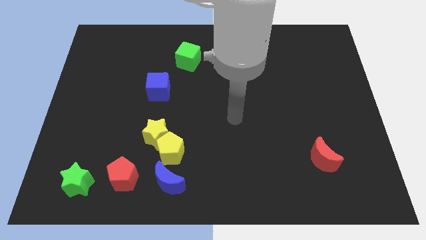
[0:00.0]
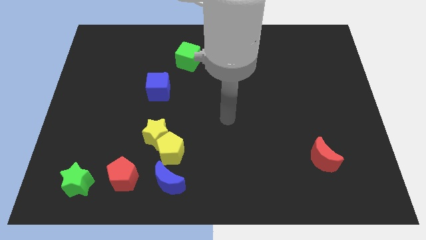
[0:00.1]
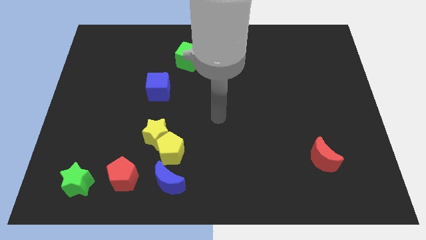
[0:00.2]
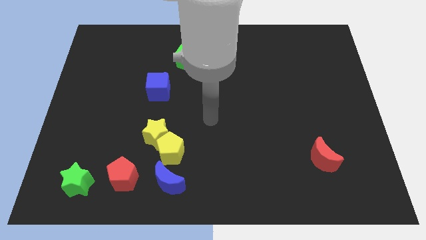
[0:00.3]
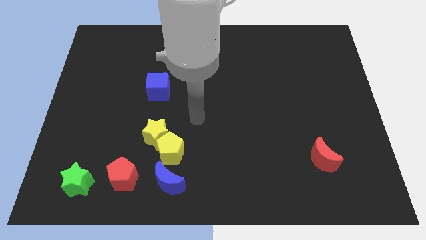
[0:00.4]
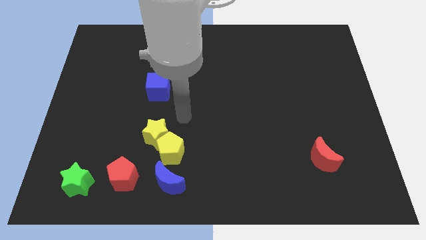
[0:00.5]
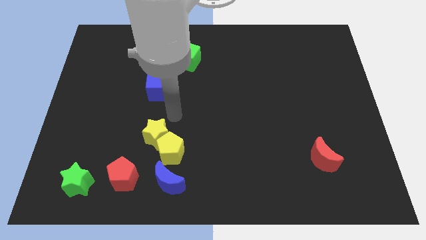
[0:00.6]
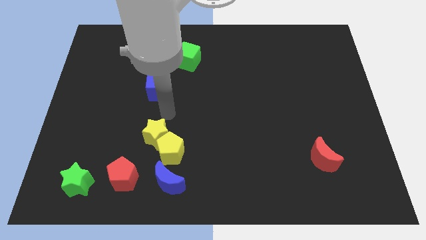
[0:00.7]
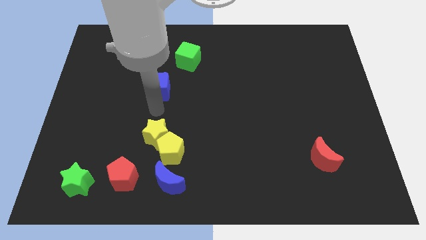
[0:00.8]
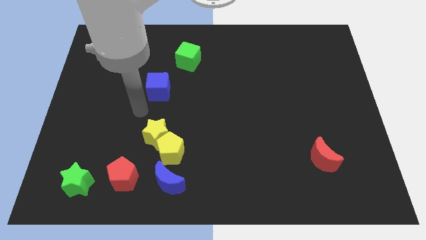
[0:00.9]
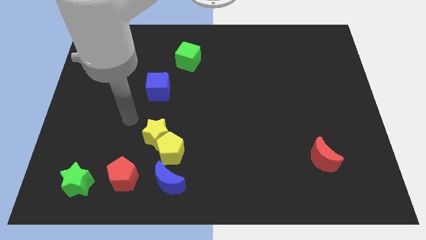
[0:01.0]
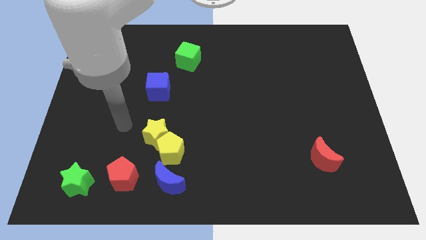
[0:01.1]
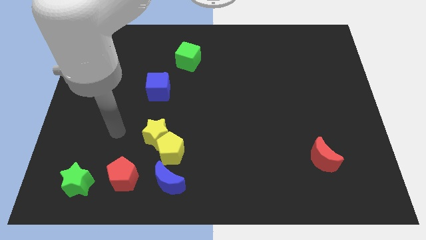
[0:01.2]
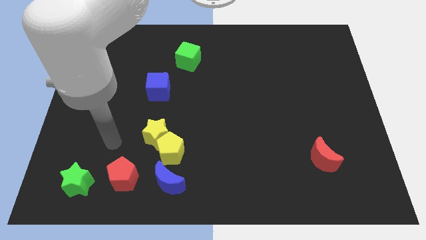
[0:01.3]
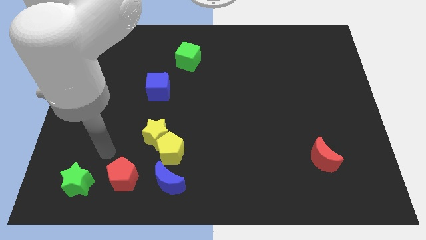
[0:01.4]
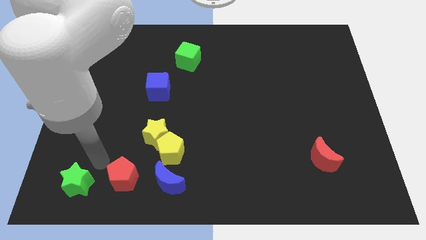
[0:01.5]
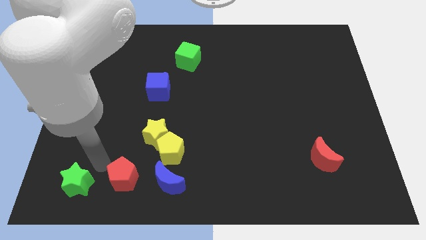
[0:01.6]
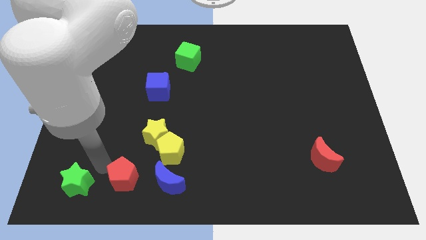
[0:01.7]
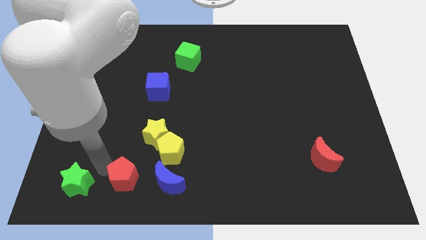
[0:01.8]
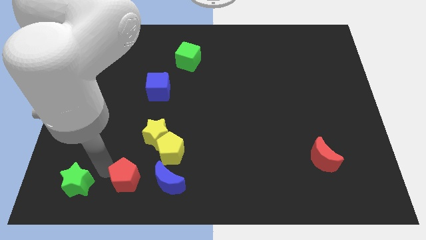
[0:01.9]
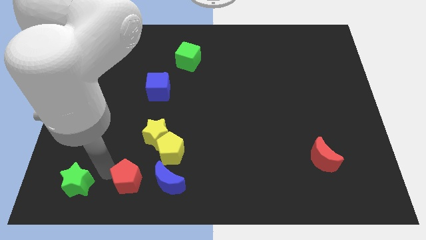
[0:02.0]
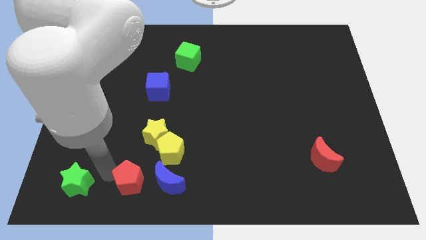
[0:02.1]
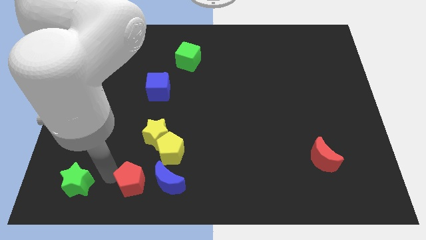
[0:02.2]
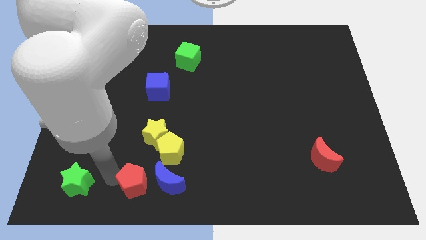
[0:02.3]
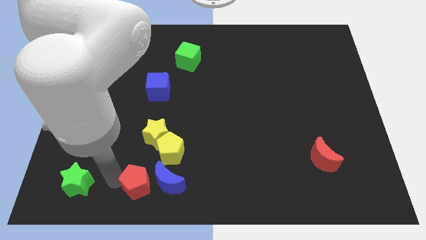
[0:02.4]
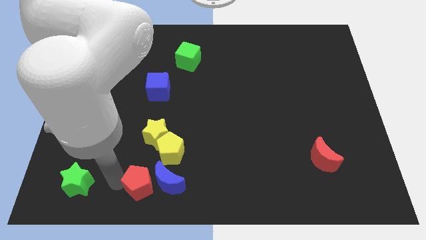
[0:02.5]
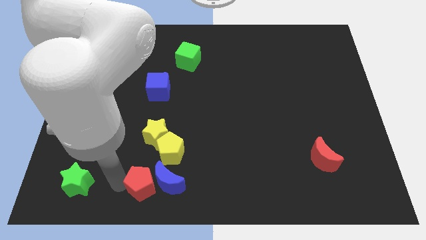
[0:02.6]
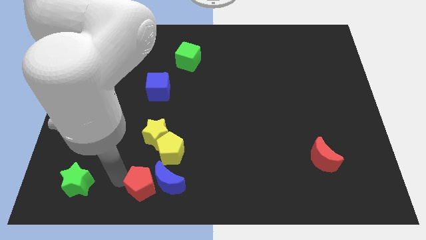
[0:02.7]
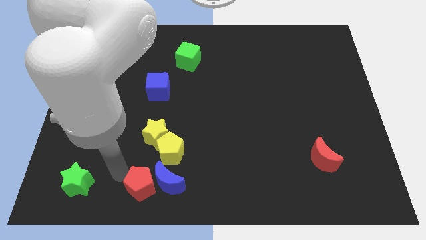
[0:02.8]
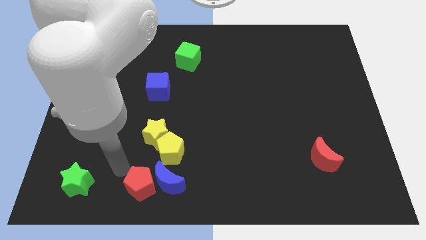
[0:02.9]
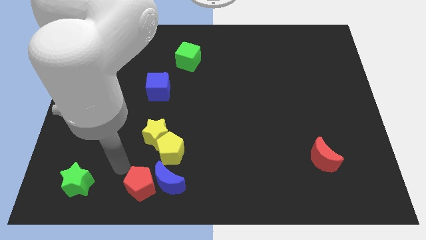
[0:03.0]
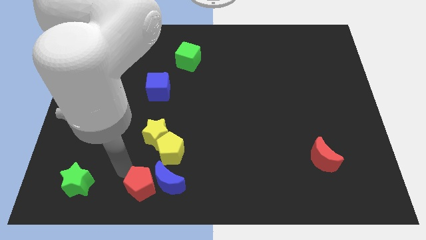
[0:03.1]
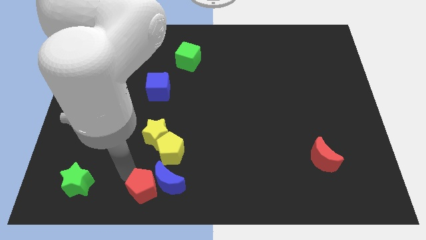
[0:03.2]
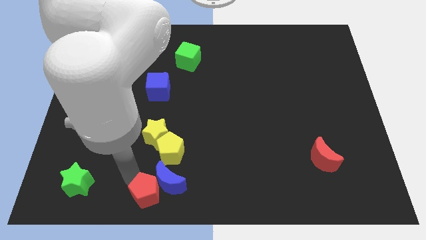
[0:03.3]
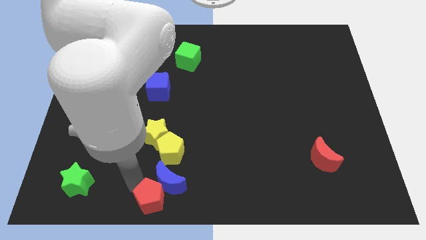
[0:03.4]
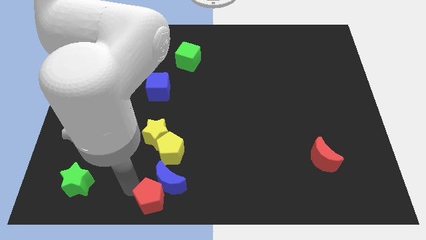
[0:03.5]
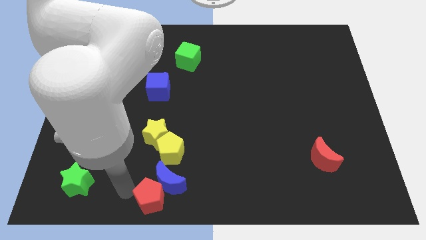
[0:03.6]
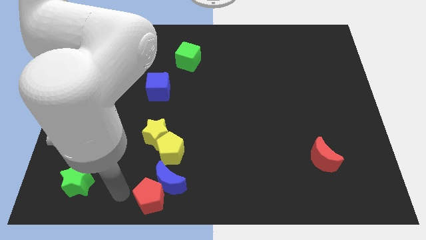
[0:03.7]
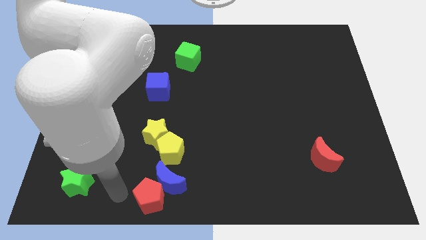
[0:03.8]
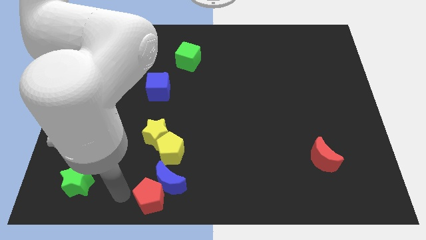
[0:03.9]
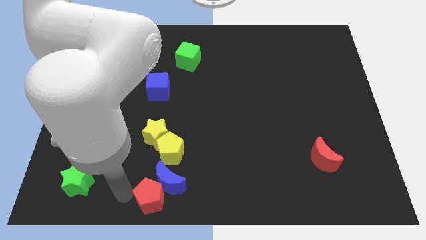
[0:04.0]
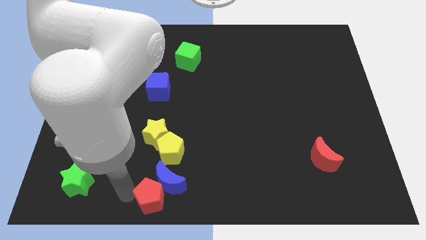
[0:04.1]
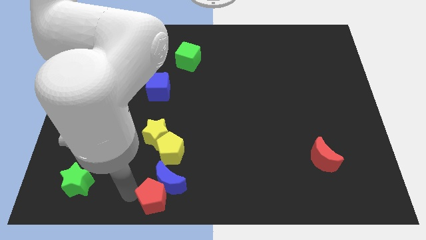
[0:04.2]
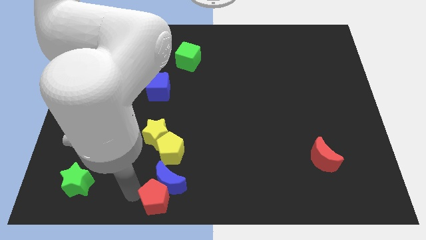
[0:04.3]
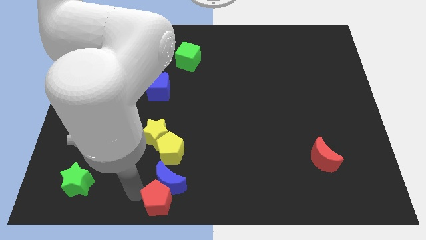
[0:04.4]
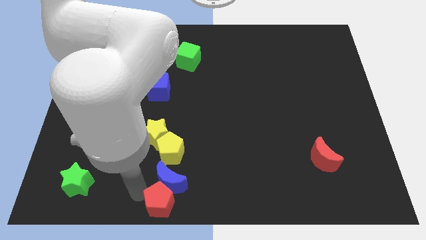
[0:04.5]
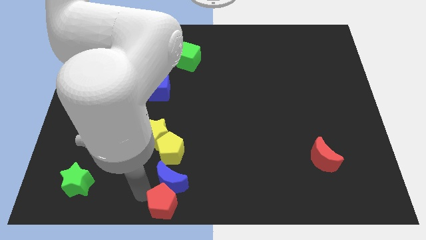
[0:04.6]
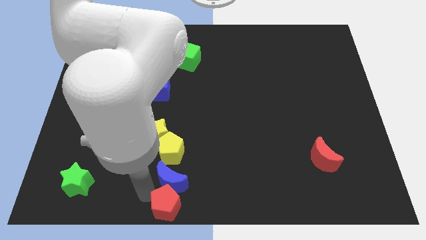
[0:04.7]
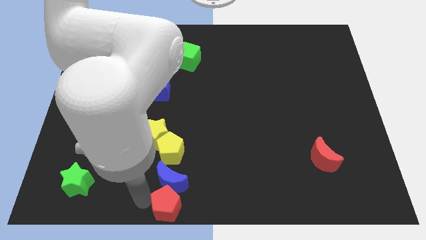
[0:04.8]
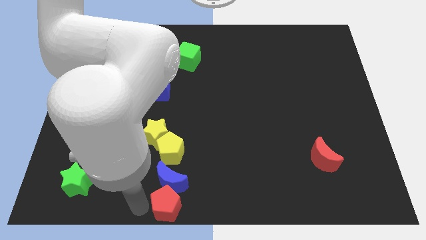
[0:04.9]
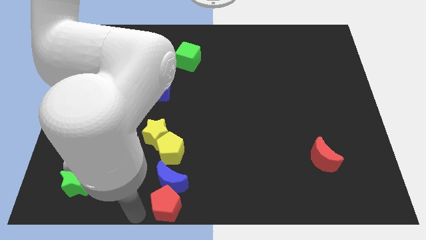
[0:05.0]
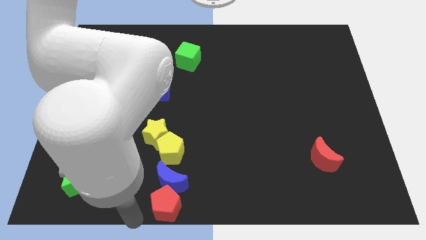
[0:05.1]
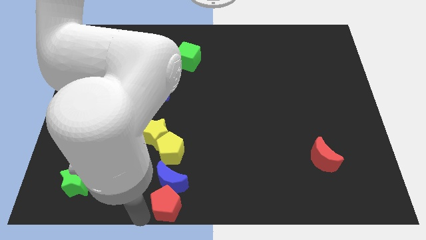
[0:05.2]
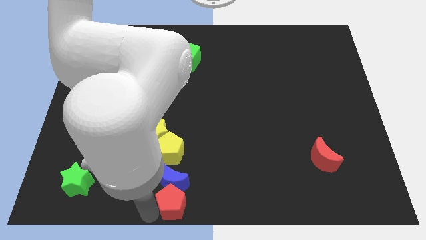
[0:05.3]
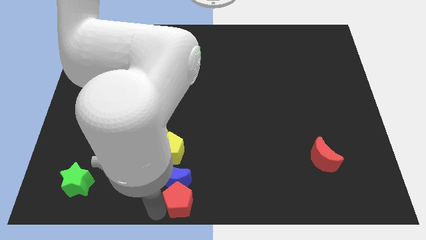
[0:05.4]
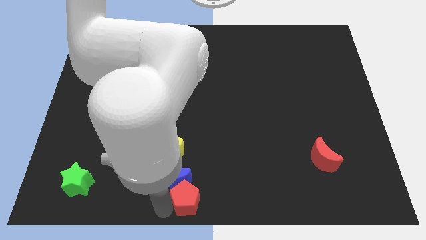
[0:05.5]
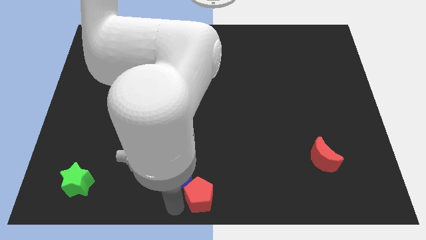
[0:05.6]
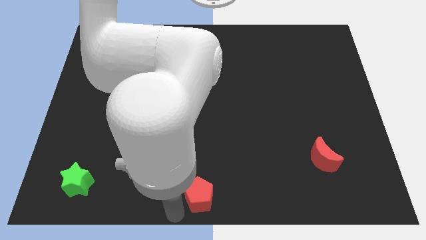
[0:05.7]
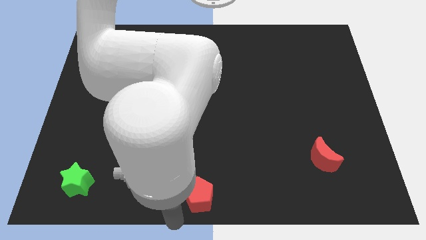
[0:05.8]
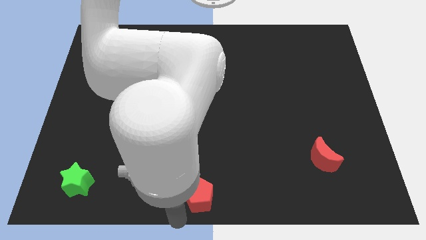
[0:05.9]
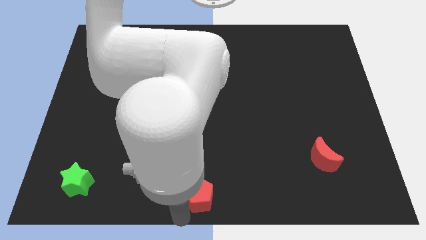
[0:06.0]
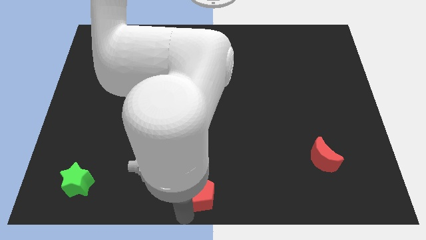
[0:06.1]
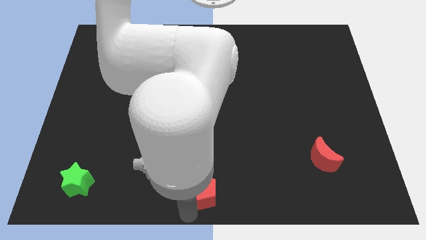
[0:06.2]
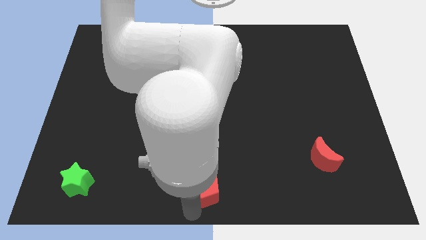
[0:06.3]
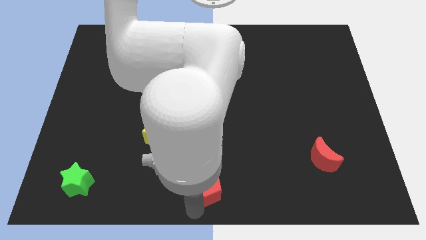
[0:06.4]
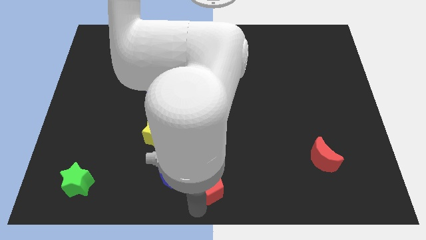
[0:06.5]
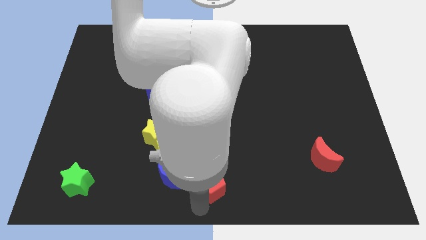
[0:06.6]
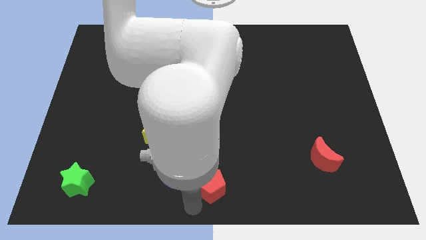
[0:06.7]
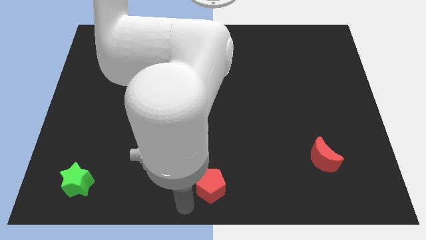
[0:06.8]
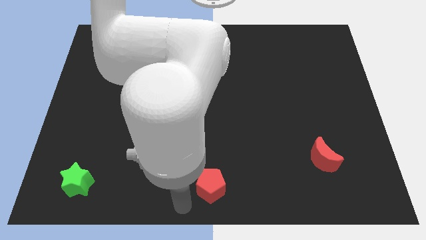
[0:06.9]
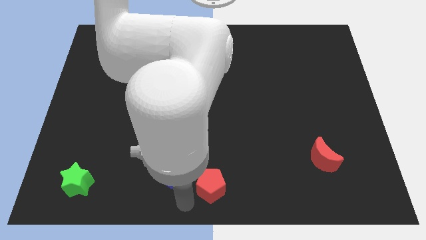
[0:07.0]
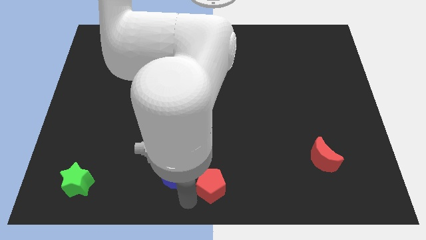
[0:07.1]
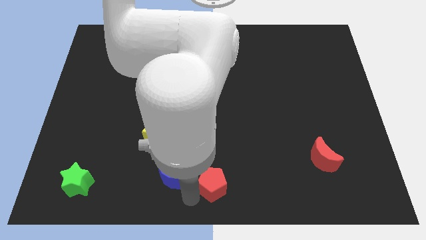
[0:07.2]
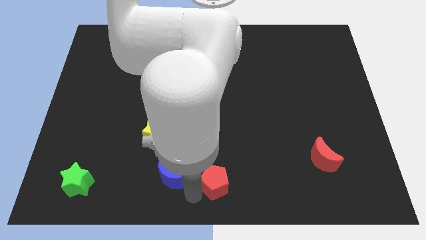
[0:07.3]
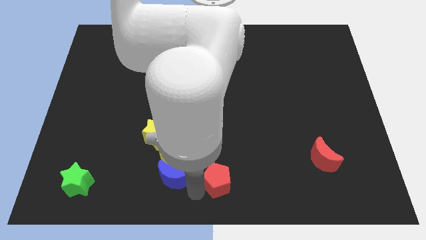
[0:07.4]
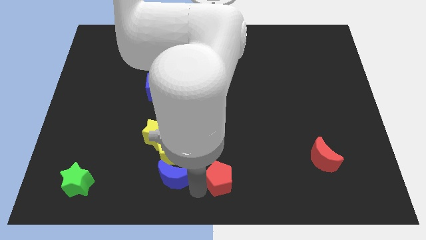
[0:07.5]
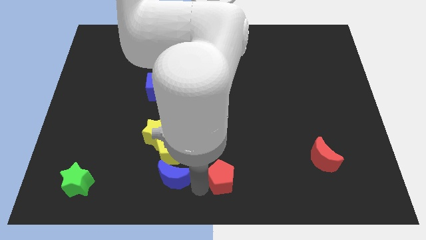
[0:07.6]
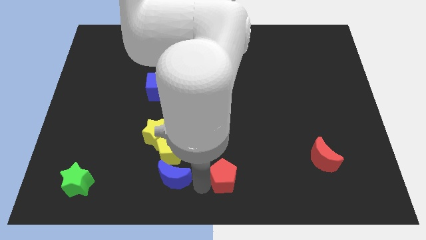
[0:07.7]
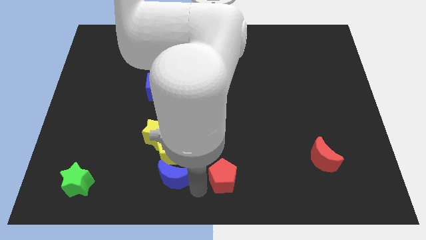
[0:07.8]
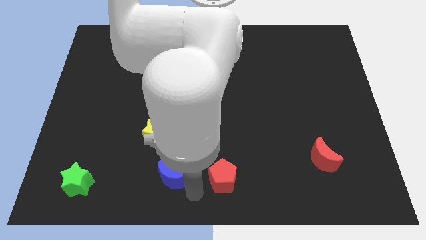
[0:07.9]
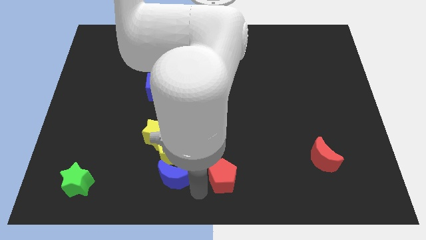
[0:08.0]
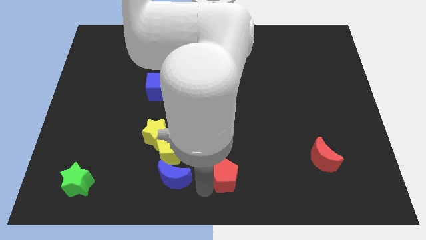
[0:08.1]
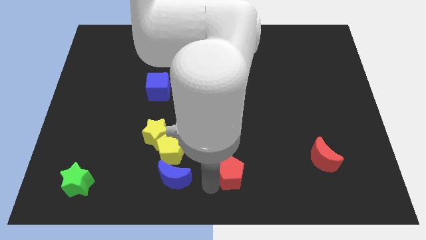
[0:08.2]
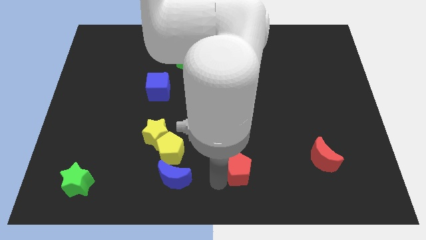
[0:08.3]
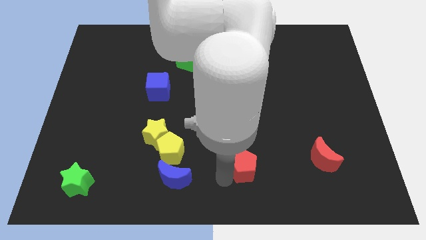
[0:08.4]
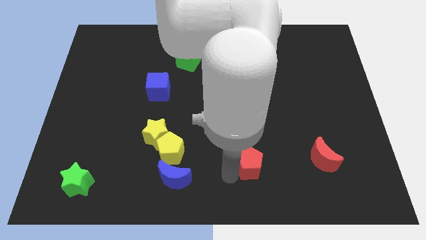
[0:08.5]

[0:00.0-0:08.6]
move the red pentagon just left of the red moon
